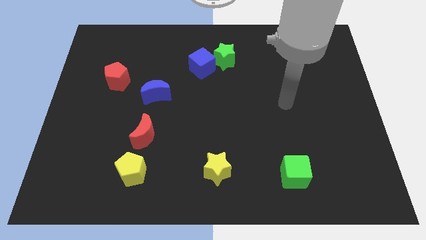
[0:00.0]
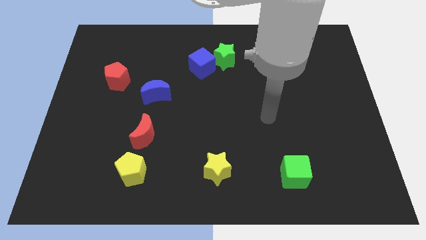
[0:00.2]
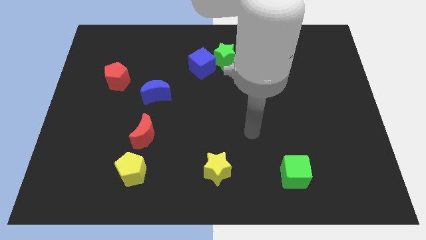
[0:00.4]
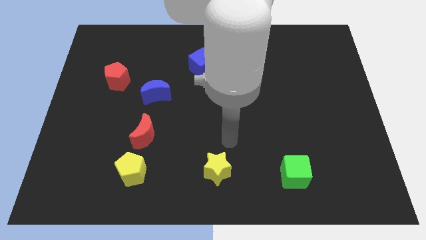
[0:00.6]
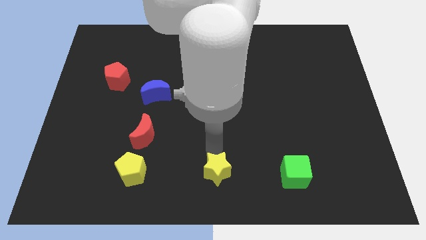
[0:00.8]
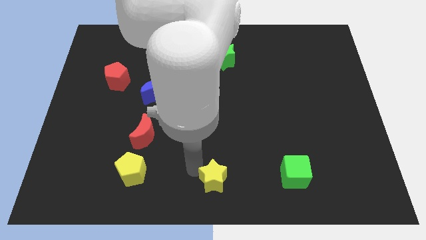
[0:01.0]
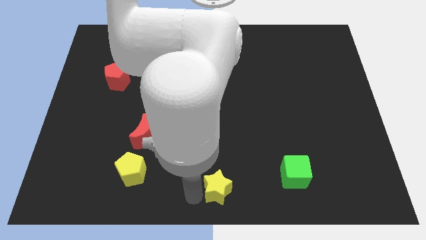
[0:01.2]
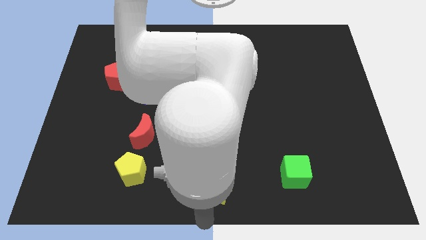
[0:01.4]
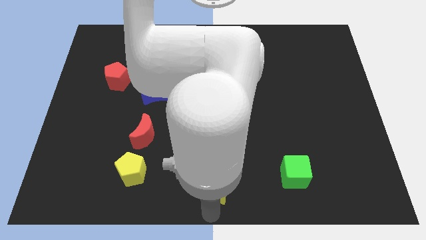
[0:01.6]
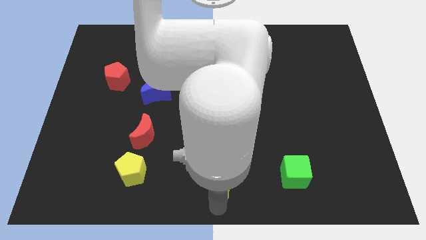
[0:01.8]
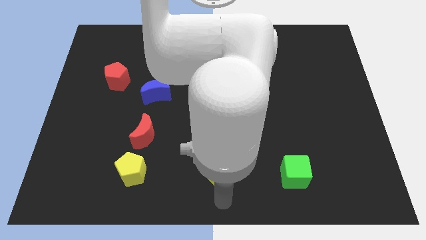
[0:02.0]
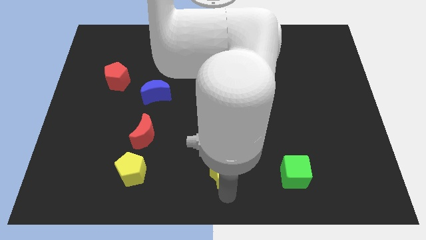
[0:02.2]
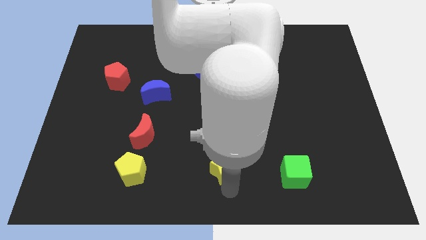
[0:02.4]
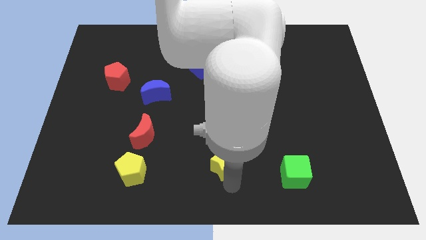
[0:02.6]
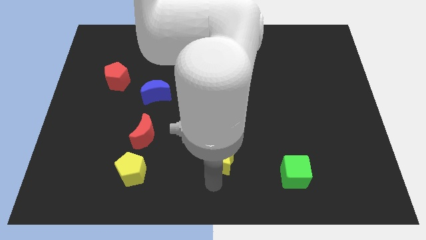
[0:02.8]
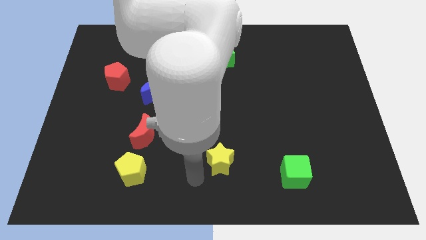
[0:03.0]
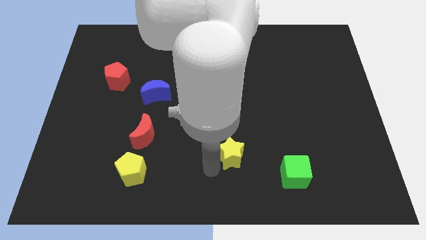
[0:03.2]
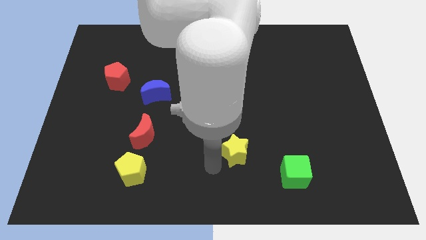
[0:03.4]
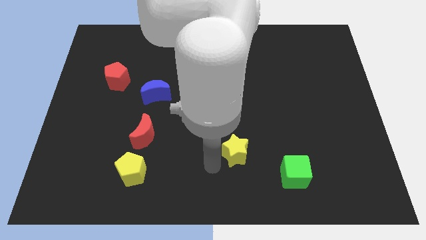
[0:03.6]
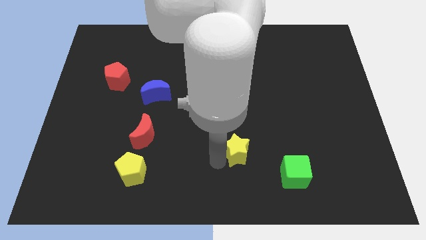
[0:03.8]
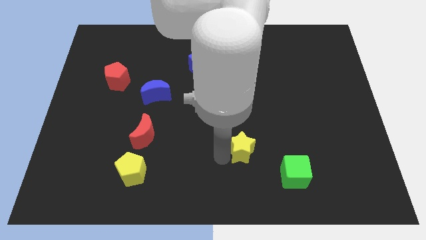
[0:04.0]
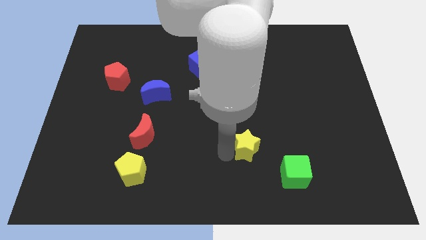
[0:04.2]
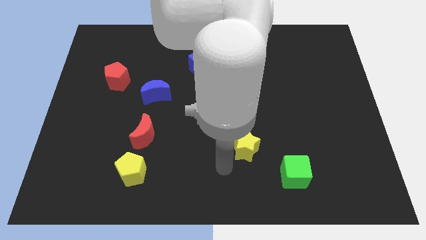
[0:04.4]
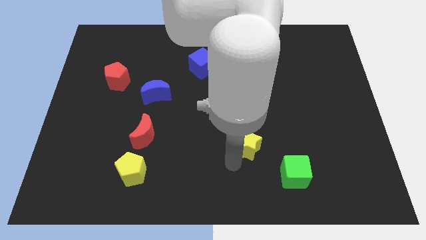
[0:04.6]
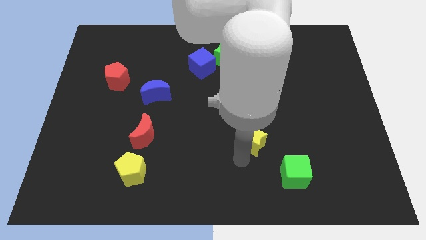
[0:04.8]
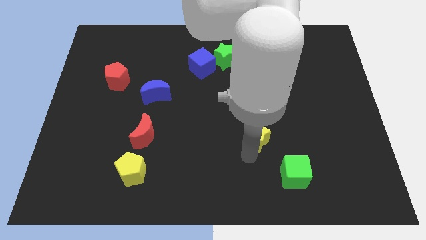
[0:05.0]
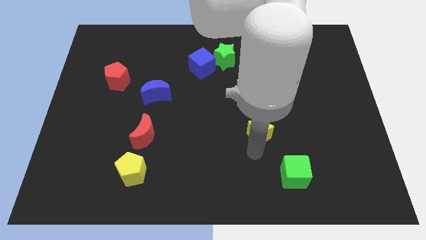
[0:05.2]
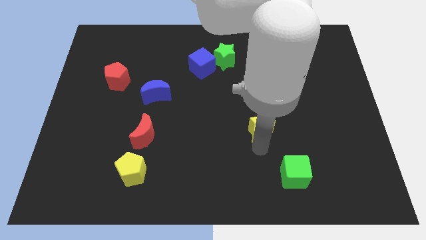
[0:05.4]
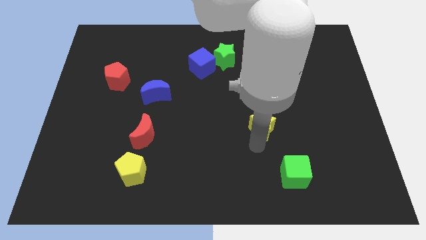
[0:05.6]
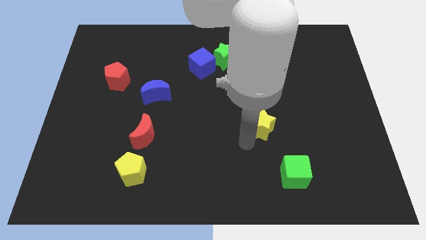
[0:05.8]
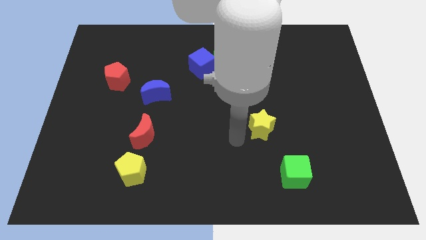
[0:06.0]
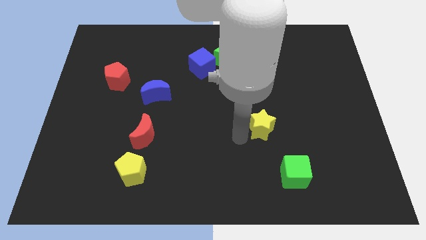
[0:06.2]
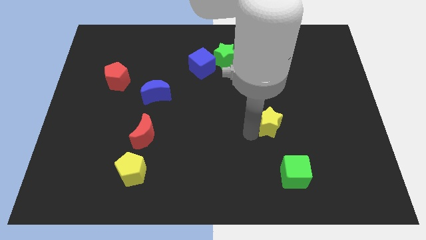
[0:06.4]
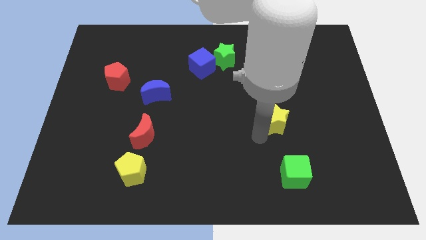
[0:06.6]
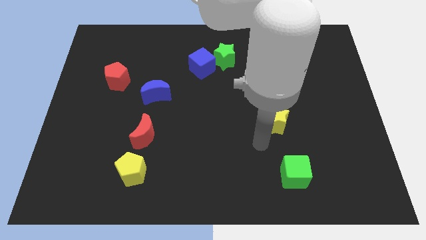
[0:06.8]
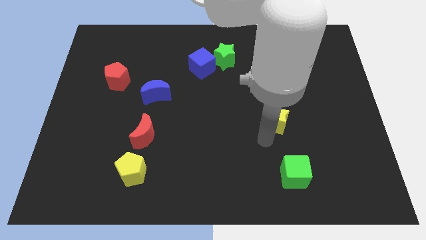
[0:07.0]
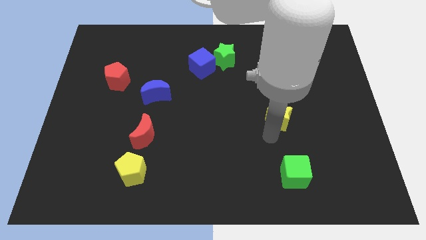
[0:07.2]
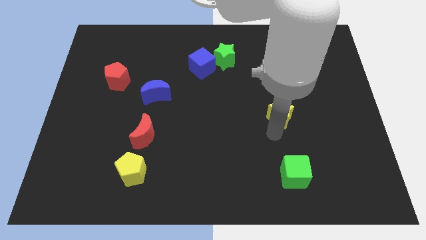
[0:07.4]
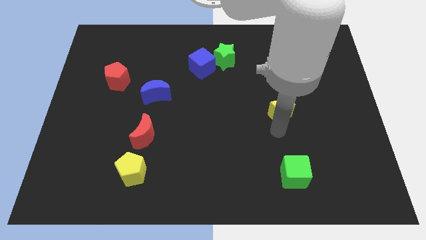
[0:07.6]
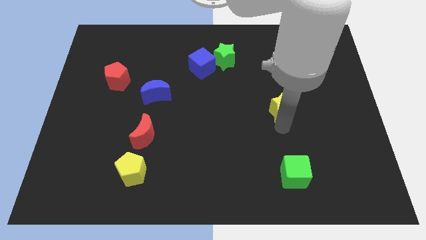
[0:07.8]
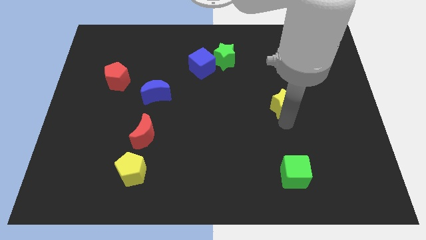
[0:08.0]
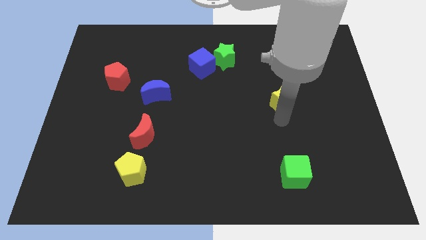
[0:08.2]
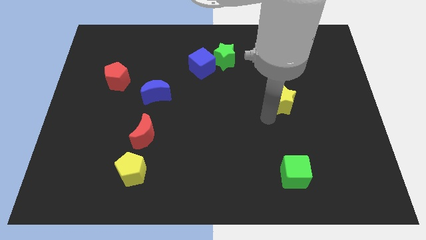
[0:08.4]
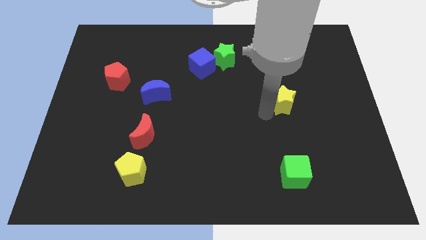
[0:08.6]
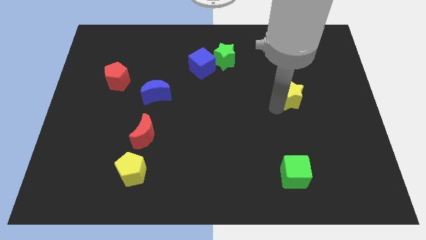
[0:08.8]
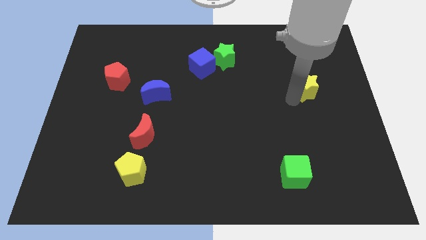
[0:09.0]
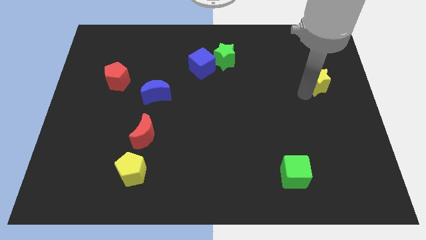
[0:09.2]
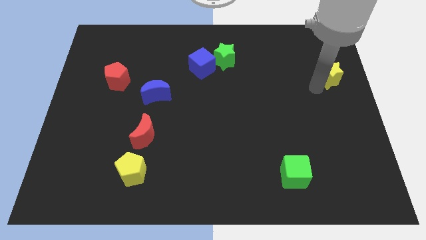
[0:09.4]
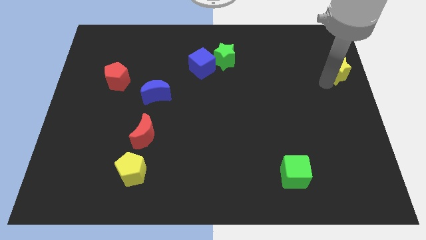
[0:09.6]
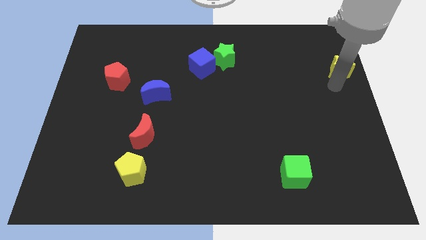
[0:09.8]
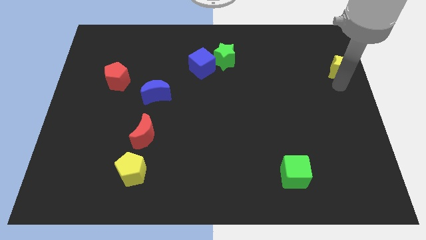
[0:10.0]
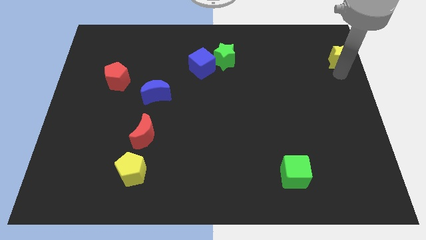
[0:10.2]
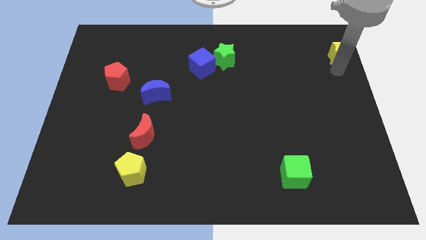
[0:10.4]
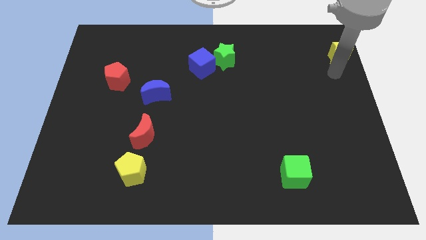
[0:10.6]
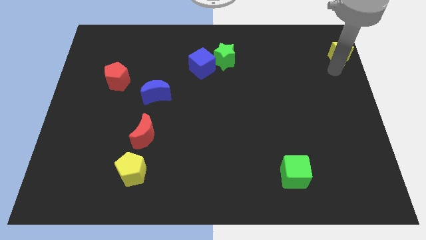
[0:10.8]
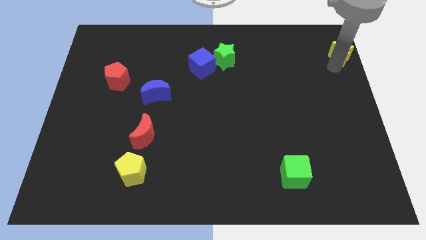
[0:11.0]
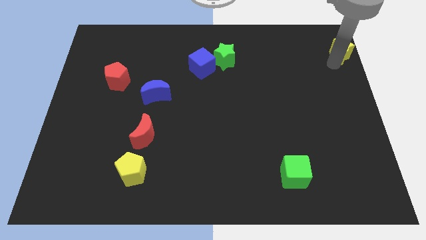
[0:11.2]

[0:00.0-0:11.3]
push the yellow star to the top right

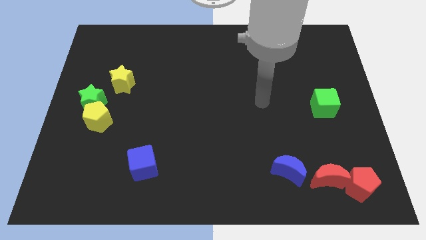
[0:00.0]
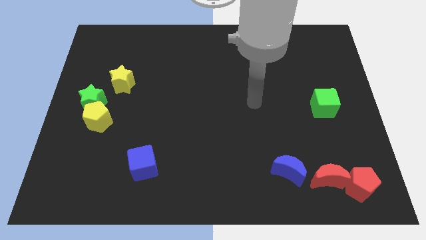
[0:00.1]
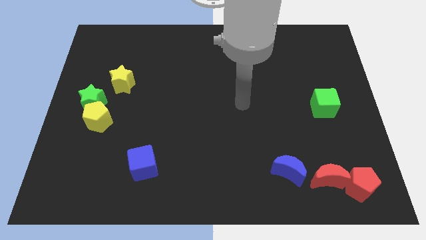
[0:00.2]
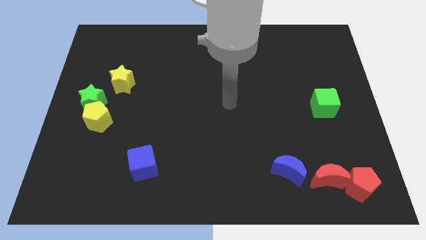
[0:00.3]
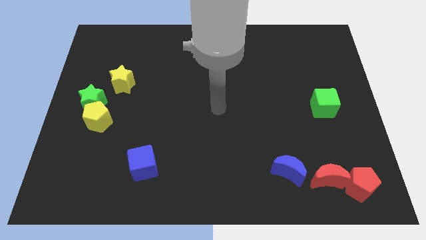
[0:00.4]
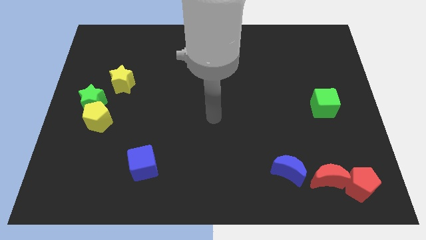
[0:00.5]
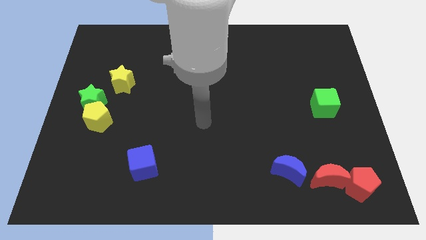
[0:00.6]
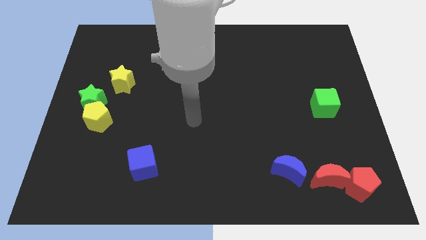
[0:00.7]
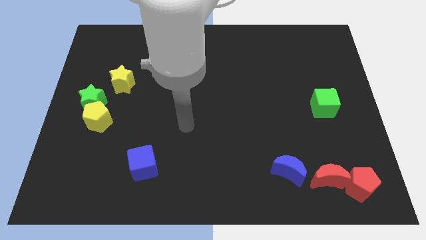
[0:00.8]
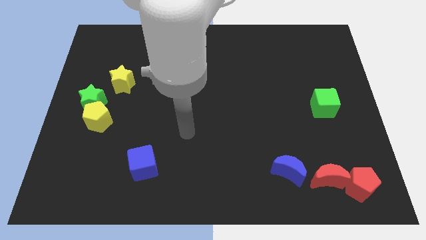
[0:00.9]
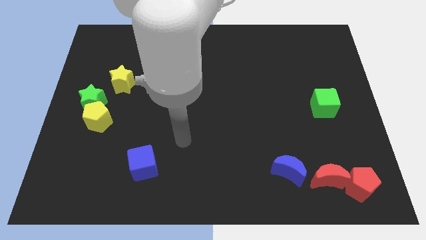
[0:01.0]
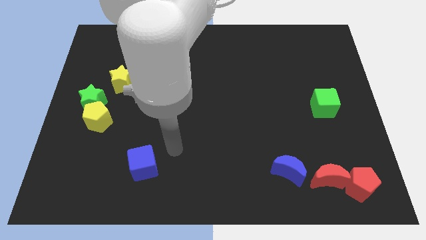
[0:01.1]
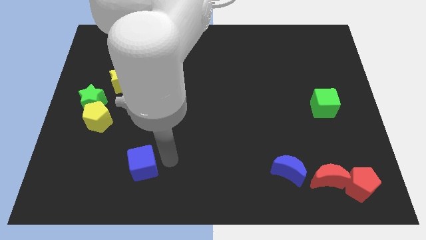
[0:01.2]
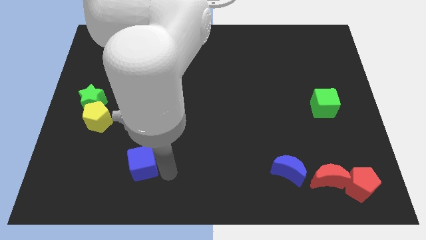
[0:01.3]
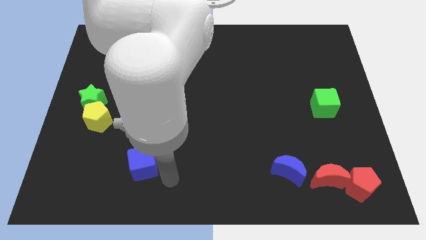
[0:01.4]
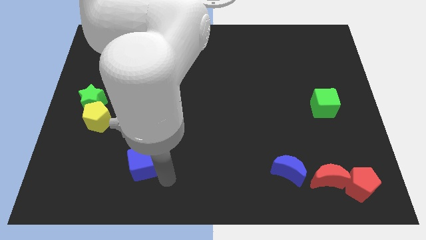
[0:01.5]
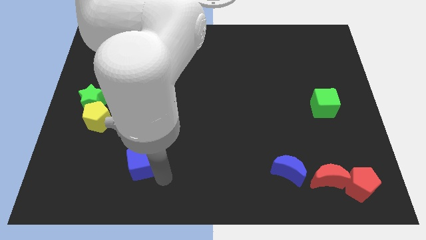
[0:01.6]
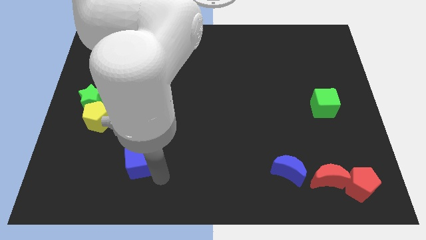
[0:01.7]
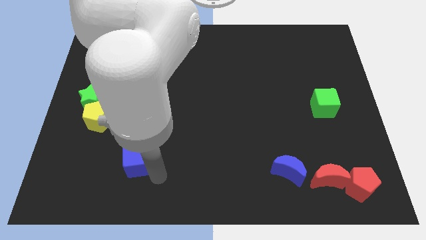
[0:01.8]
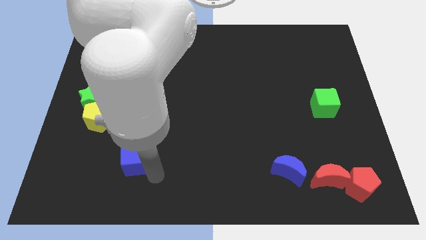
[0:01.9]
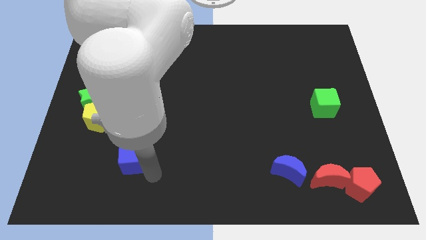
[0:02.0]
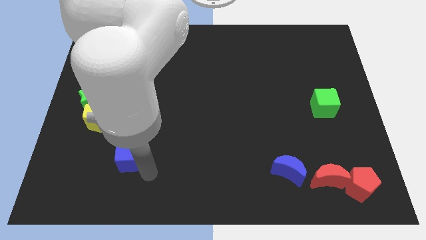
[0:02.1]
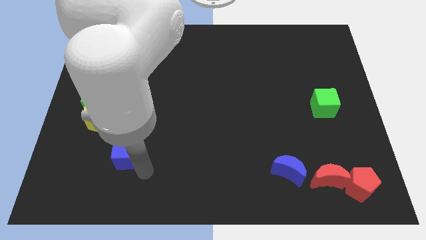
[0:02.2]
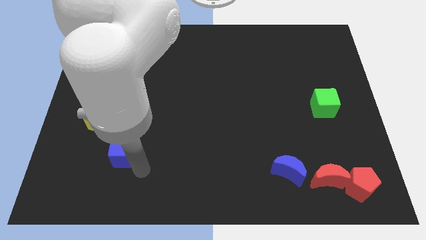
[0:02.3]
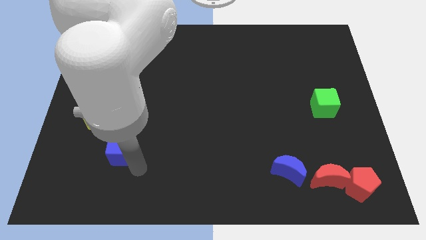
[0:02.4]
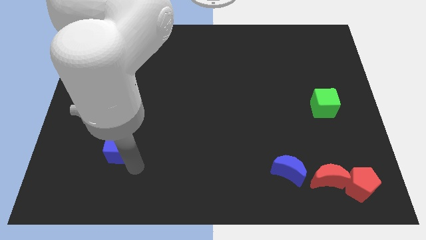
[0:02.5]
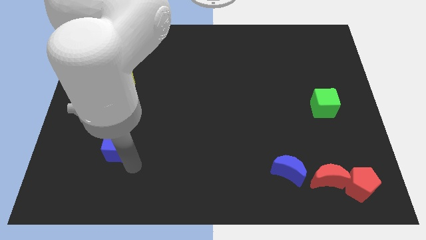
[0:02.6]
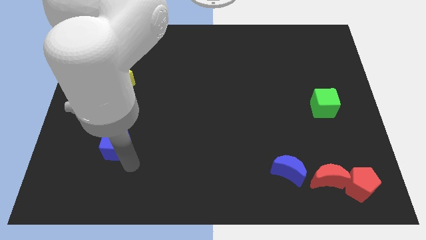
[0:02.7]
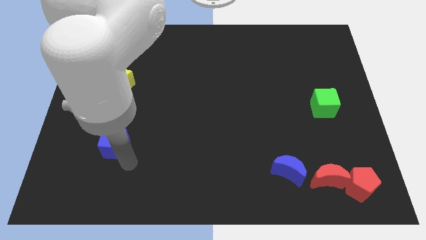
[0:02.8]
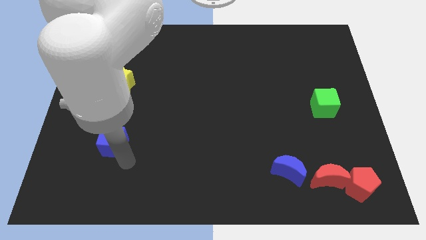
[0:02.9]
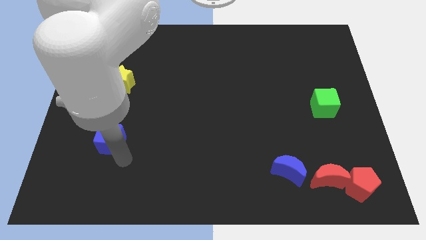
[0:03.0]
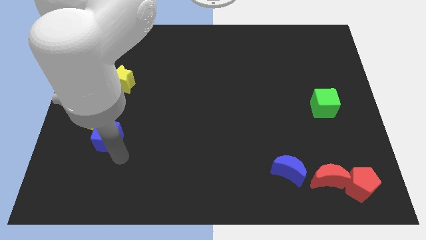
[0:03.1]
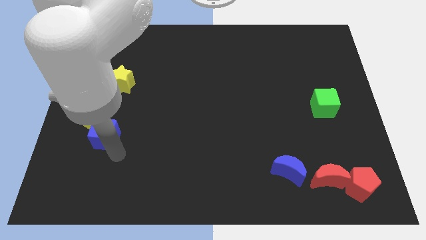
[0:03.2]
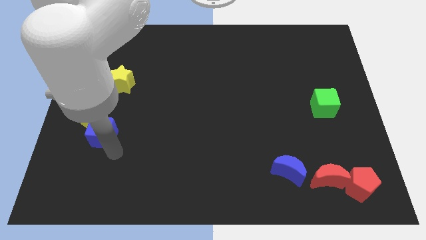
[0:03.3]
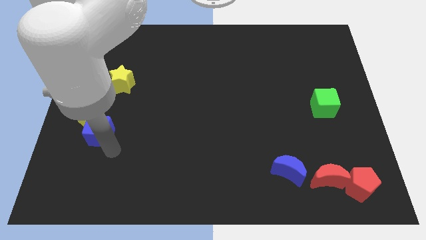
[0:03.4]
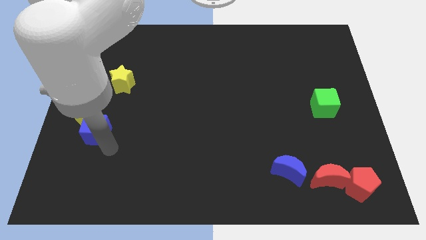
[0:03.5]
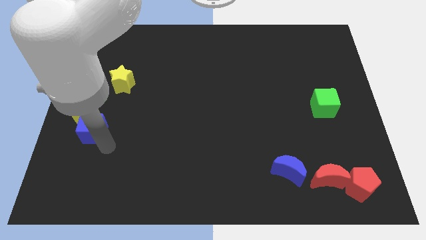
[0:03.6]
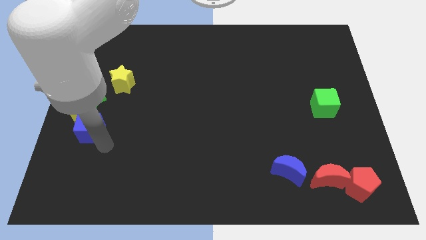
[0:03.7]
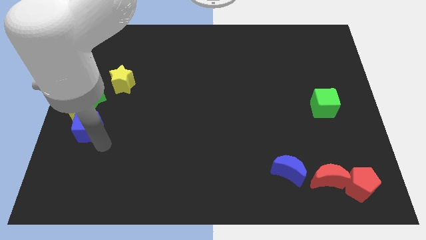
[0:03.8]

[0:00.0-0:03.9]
push the blue cube to the left side
